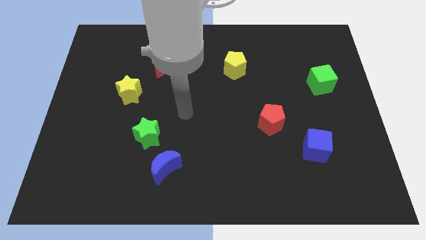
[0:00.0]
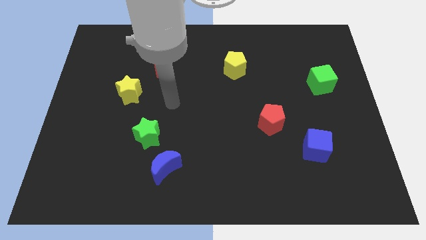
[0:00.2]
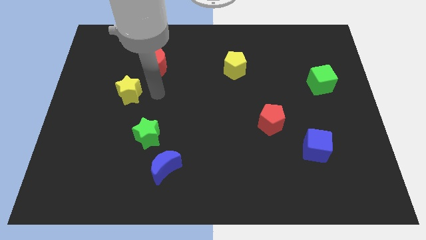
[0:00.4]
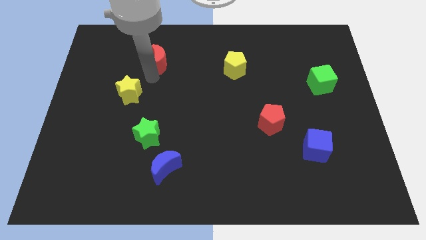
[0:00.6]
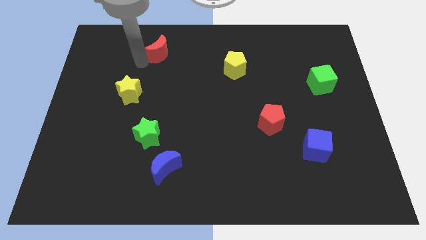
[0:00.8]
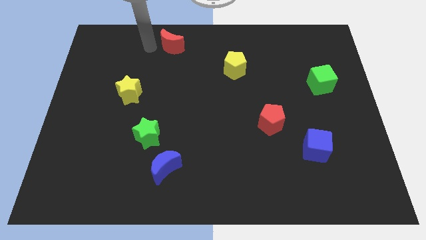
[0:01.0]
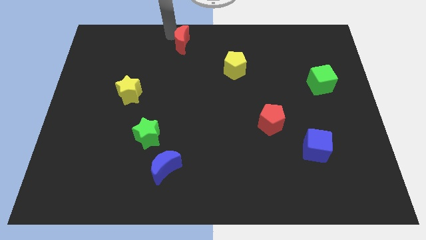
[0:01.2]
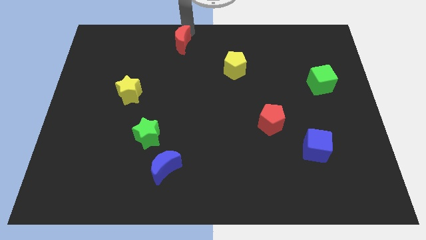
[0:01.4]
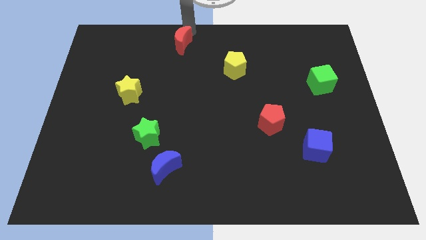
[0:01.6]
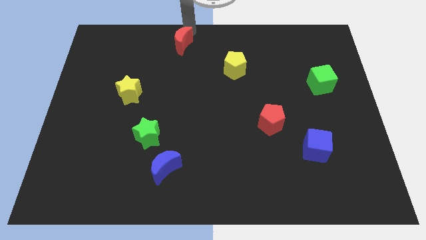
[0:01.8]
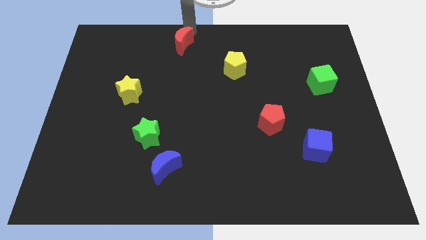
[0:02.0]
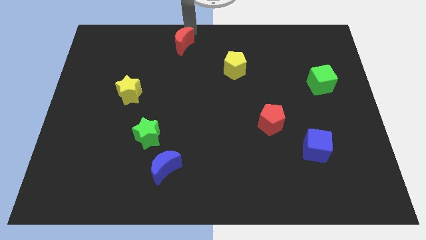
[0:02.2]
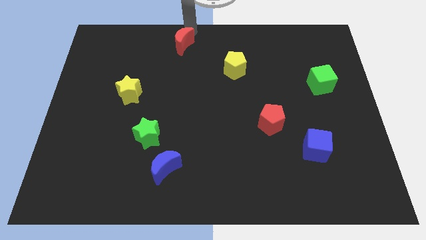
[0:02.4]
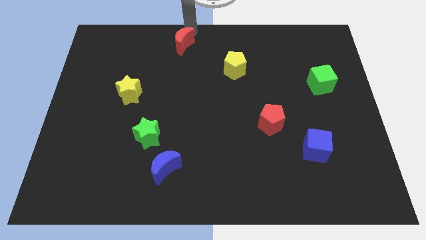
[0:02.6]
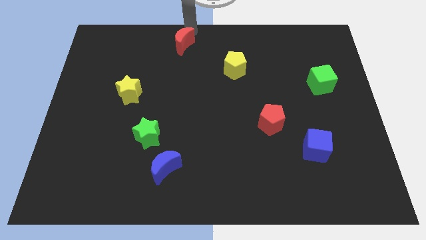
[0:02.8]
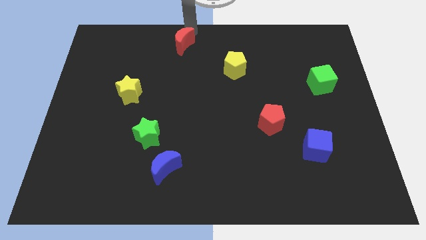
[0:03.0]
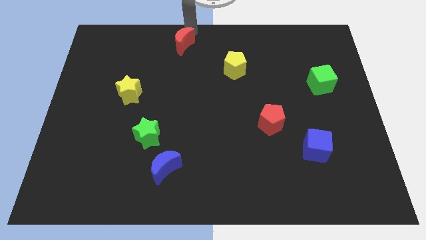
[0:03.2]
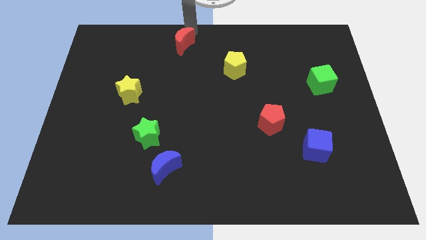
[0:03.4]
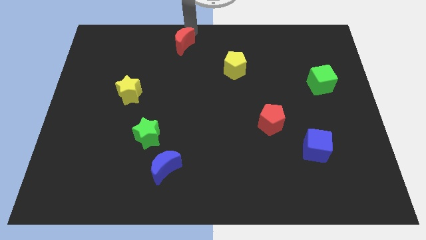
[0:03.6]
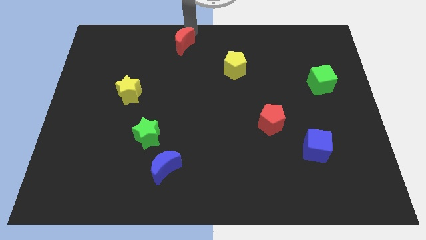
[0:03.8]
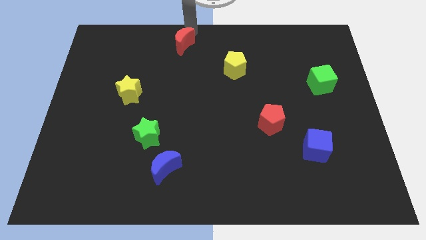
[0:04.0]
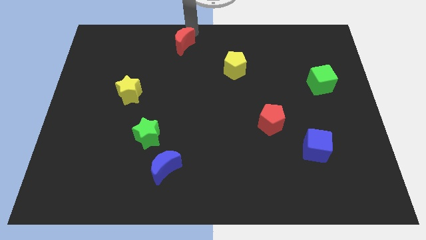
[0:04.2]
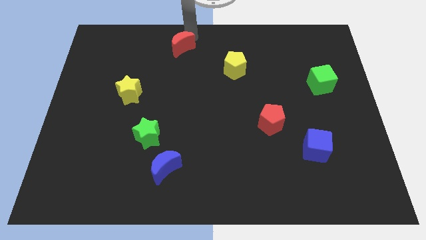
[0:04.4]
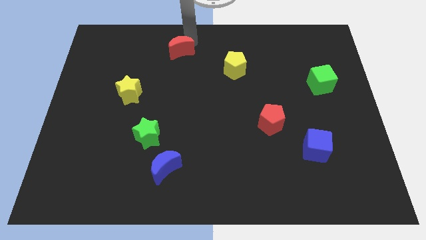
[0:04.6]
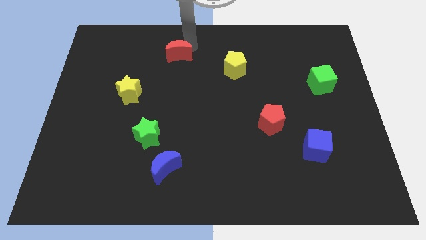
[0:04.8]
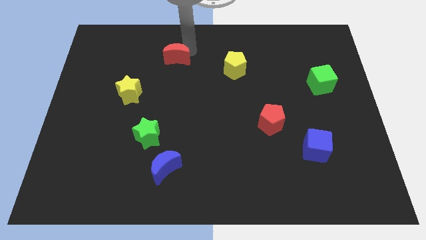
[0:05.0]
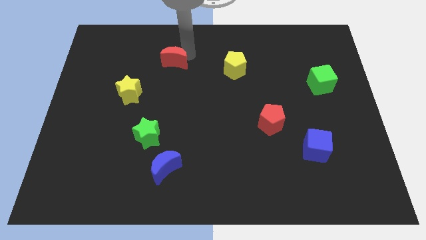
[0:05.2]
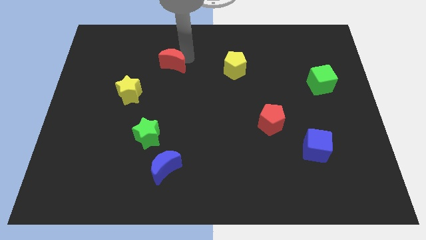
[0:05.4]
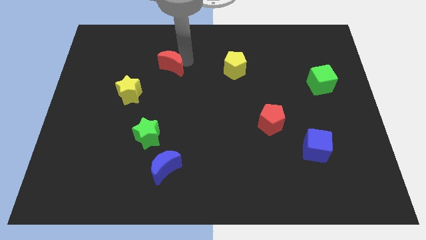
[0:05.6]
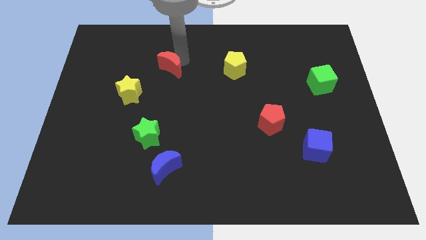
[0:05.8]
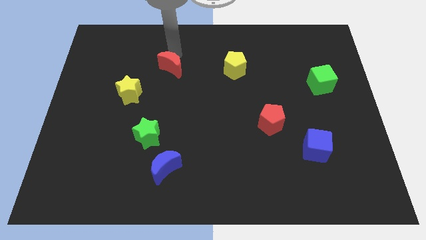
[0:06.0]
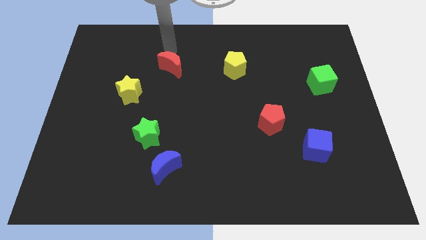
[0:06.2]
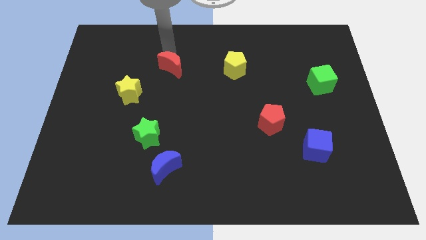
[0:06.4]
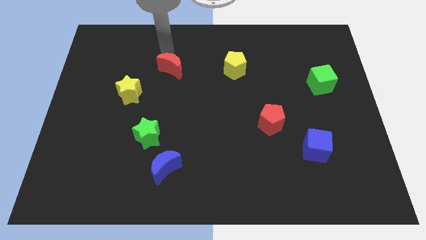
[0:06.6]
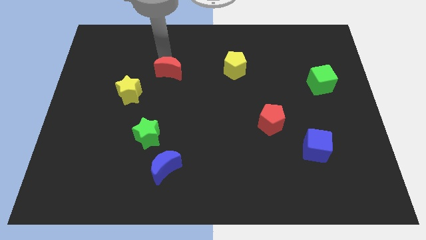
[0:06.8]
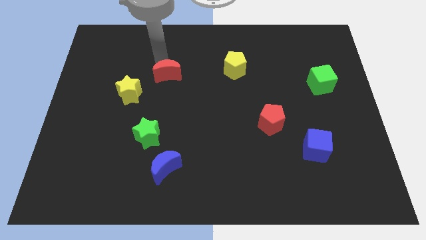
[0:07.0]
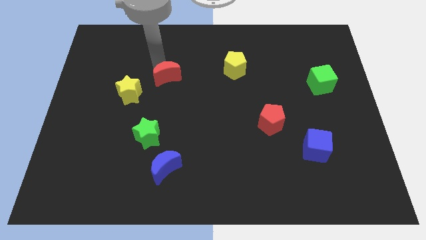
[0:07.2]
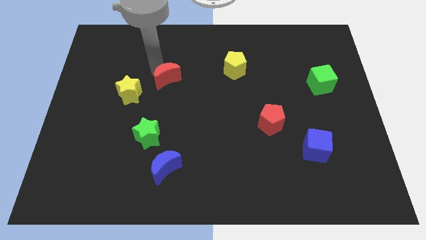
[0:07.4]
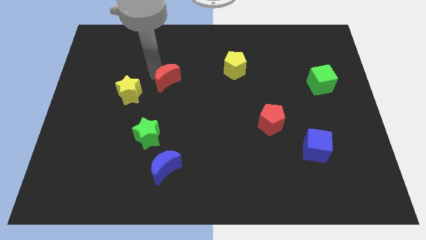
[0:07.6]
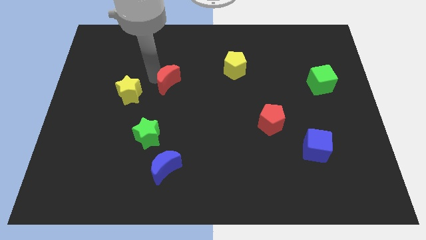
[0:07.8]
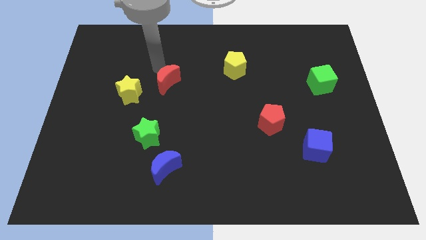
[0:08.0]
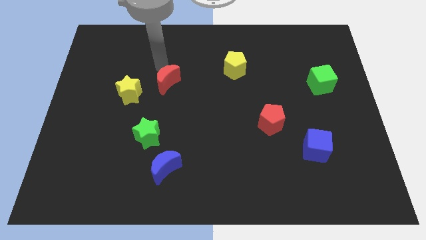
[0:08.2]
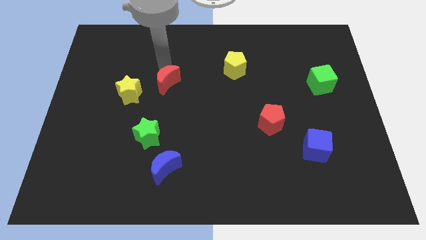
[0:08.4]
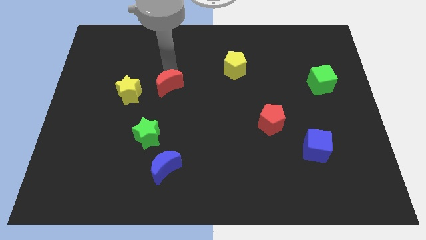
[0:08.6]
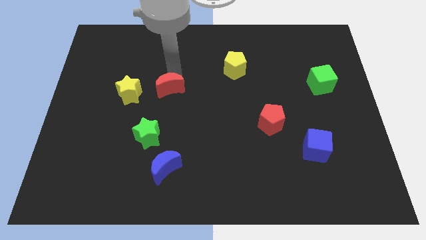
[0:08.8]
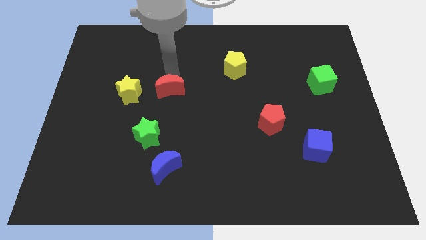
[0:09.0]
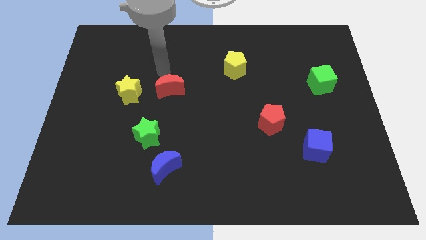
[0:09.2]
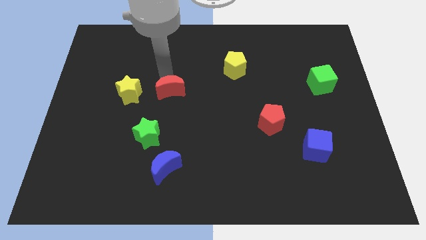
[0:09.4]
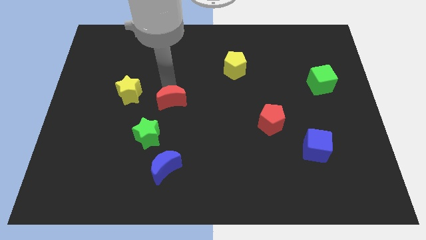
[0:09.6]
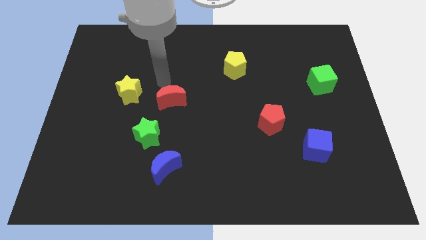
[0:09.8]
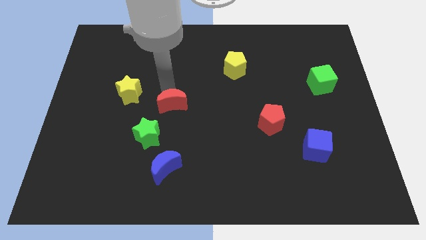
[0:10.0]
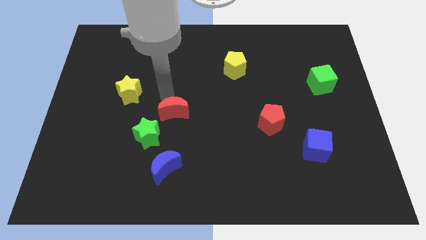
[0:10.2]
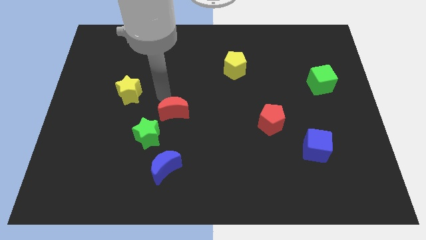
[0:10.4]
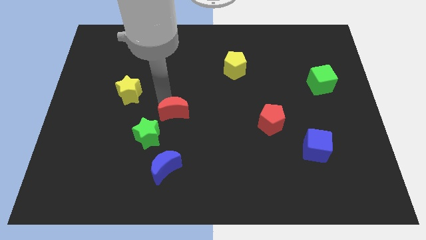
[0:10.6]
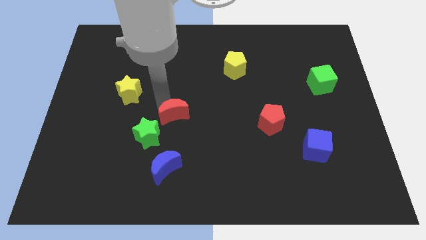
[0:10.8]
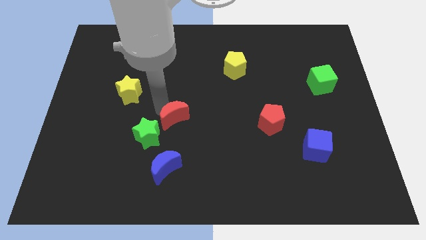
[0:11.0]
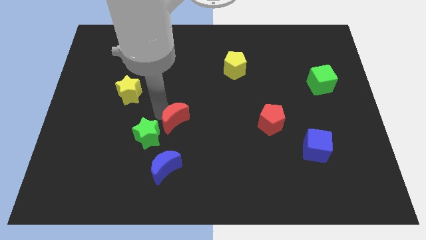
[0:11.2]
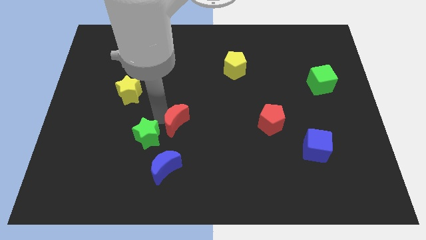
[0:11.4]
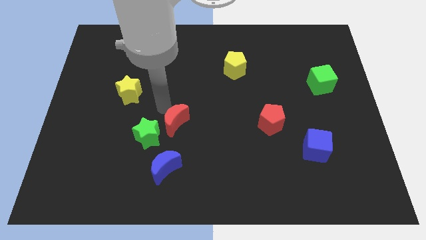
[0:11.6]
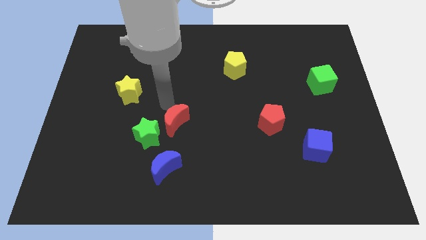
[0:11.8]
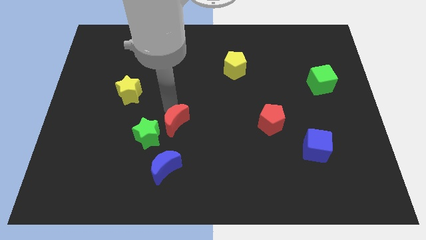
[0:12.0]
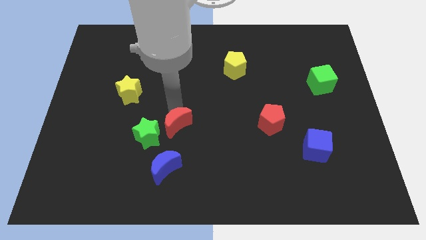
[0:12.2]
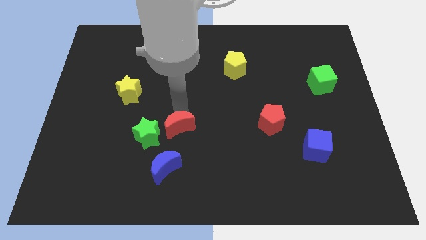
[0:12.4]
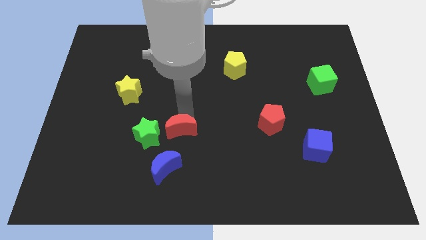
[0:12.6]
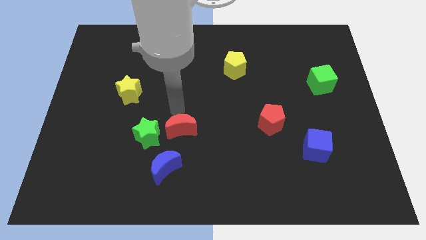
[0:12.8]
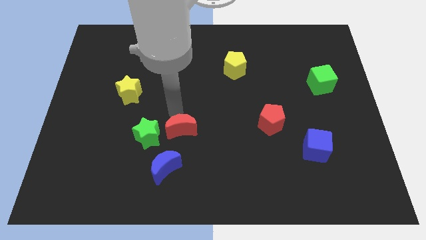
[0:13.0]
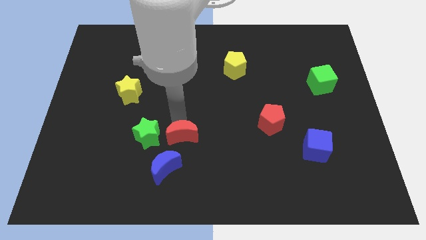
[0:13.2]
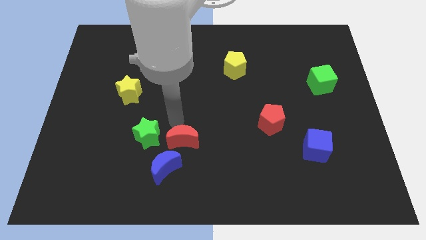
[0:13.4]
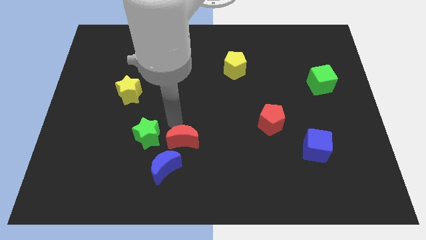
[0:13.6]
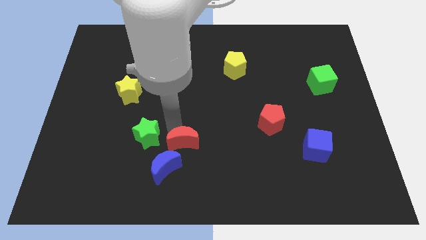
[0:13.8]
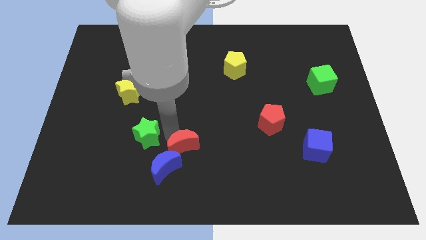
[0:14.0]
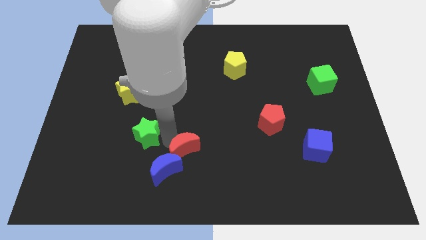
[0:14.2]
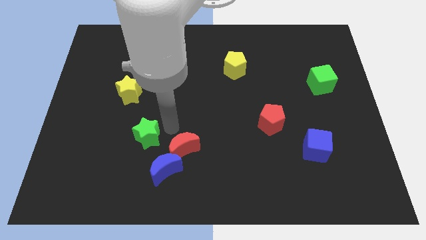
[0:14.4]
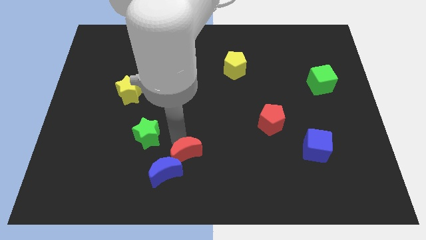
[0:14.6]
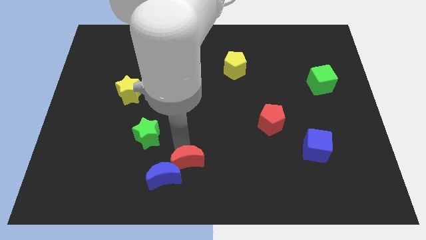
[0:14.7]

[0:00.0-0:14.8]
put the red moon to the bottom
